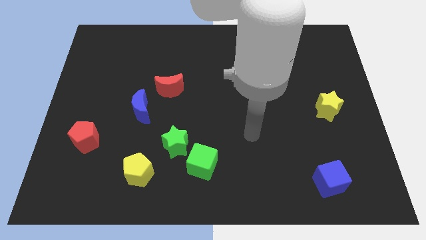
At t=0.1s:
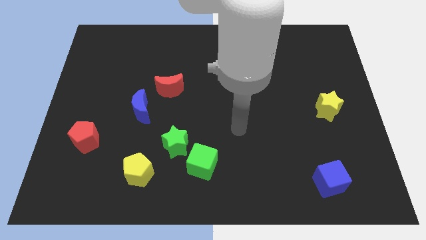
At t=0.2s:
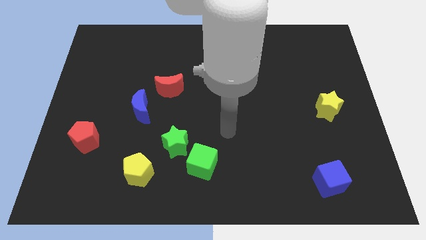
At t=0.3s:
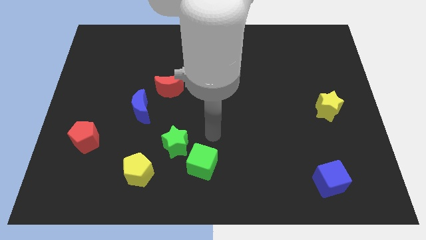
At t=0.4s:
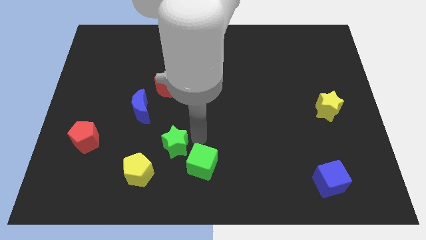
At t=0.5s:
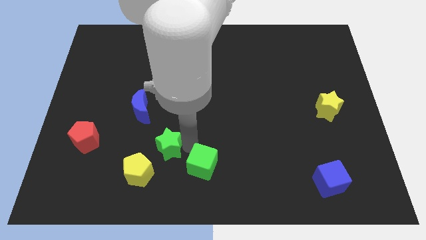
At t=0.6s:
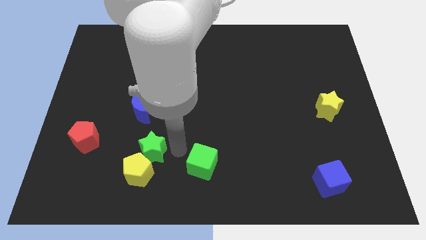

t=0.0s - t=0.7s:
pull the green cube apart from the green star

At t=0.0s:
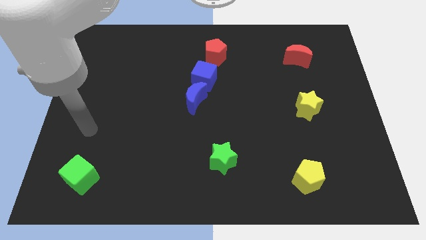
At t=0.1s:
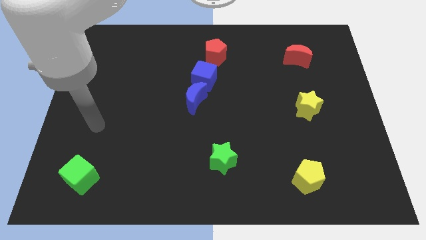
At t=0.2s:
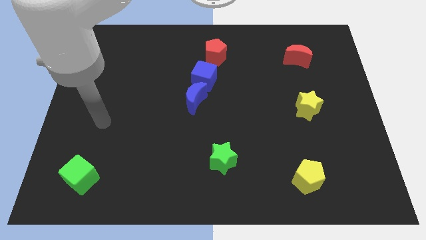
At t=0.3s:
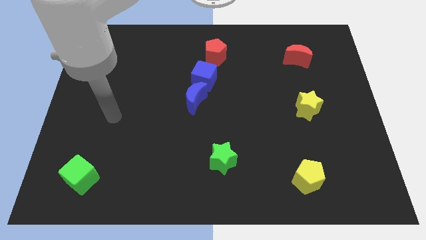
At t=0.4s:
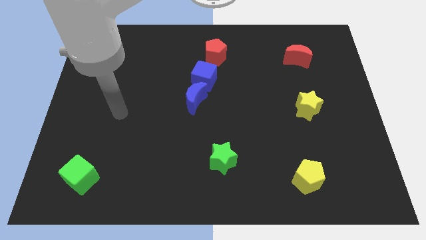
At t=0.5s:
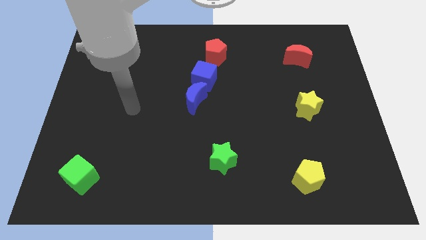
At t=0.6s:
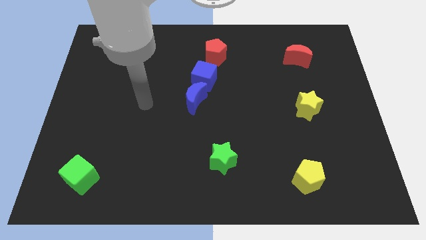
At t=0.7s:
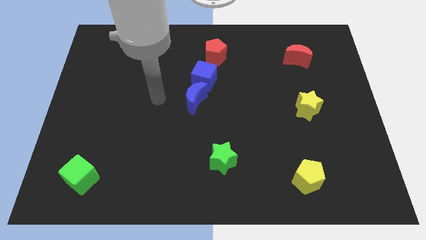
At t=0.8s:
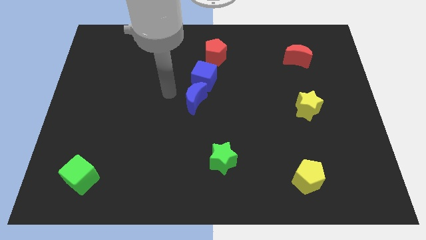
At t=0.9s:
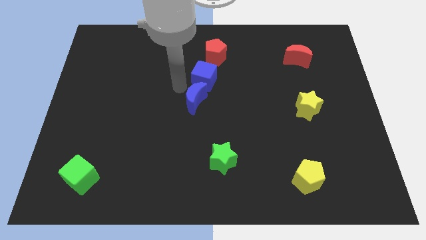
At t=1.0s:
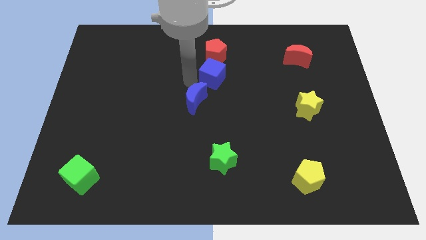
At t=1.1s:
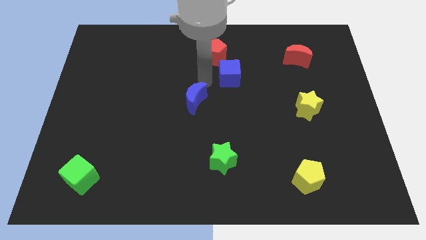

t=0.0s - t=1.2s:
move the blue moon away from the blue cube

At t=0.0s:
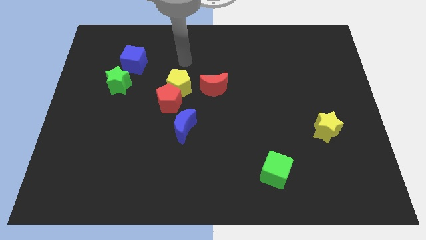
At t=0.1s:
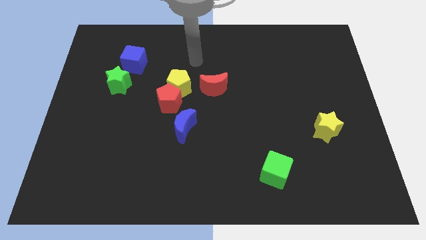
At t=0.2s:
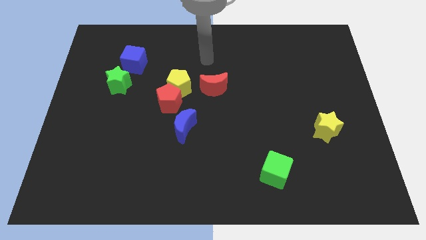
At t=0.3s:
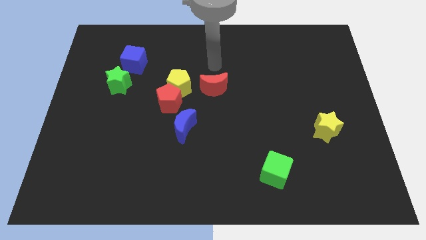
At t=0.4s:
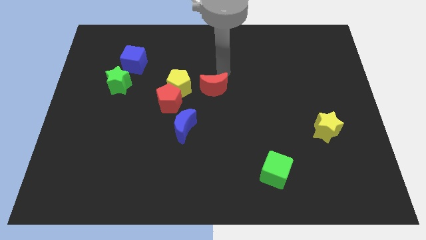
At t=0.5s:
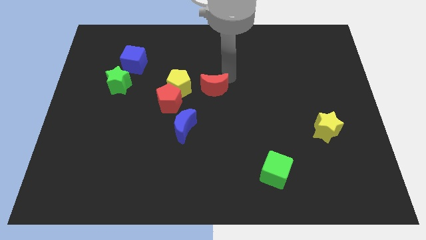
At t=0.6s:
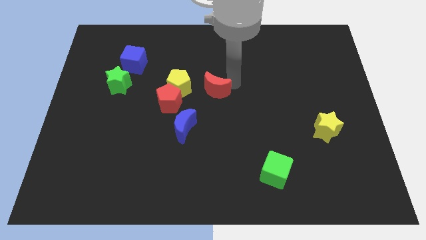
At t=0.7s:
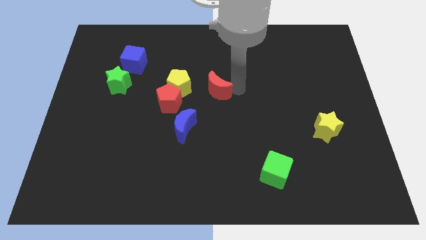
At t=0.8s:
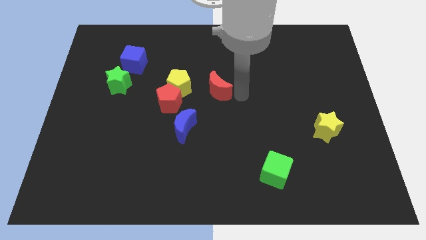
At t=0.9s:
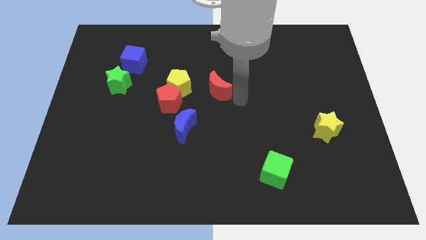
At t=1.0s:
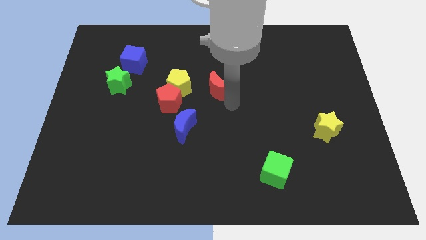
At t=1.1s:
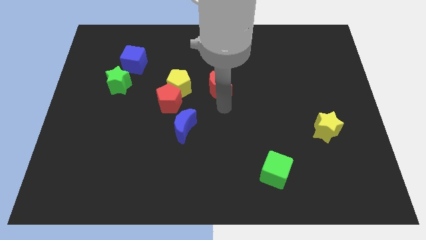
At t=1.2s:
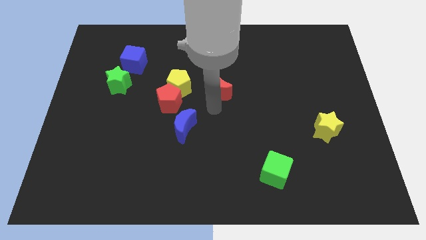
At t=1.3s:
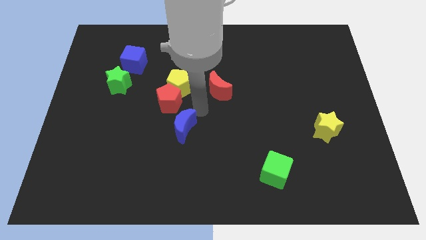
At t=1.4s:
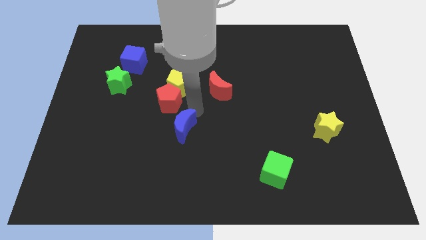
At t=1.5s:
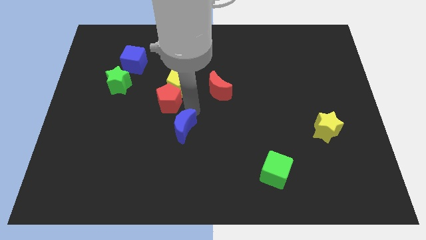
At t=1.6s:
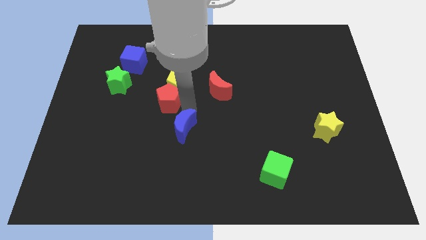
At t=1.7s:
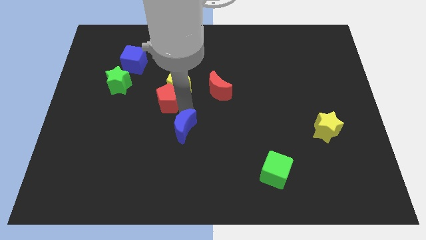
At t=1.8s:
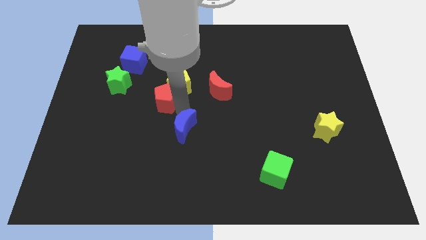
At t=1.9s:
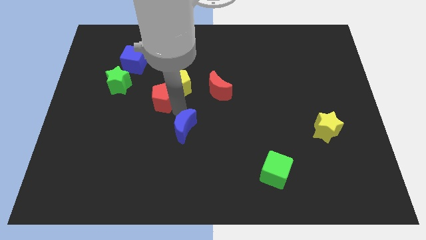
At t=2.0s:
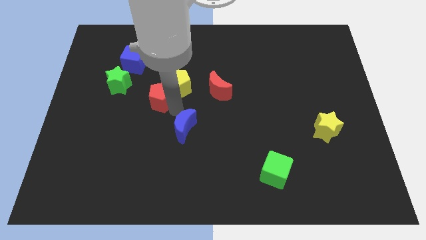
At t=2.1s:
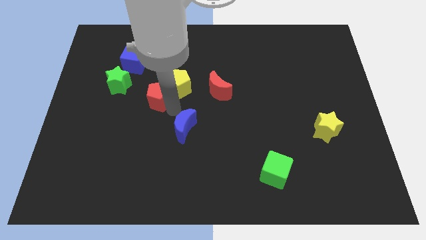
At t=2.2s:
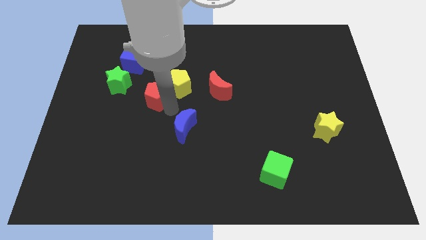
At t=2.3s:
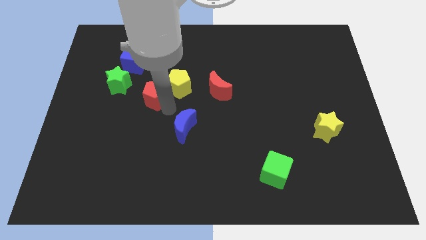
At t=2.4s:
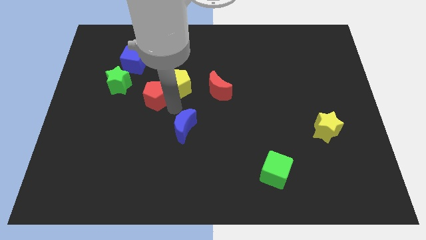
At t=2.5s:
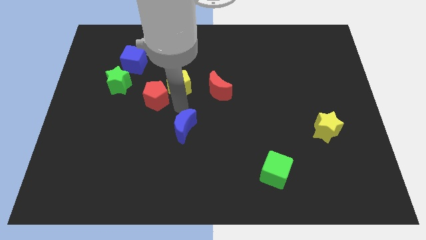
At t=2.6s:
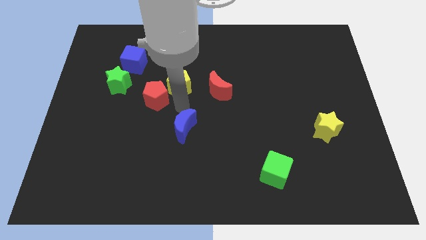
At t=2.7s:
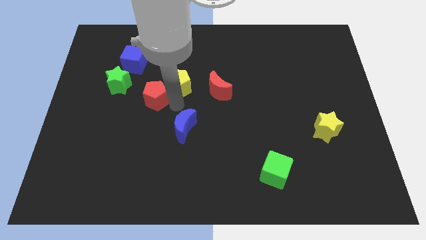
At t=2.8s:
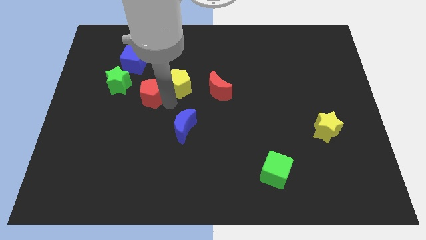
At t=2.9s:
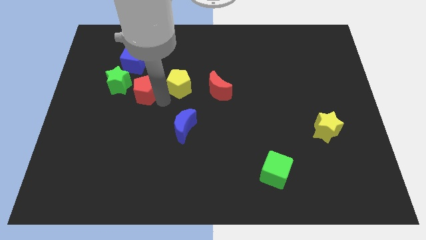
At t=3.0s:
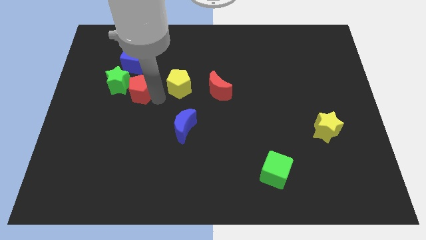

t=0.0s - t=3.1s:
move the red pentagon away from the yellow pentagon and blue moon

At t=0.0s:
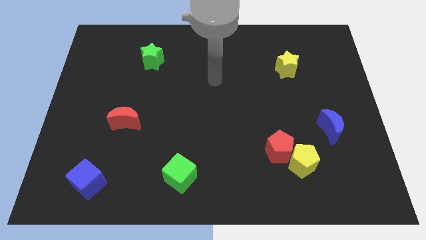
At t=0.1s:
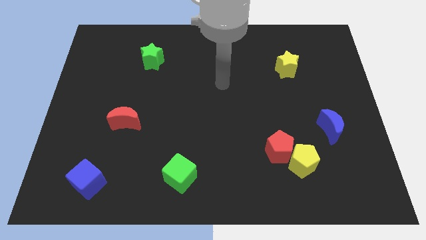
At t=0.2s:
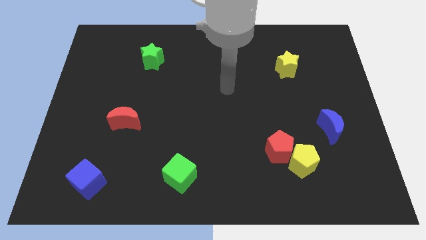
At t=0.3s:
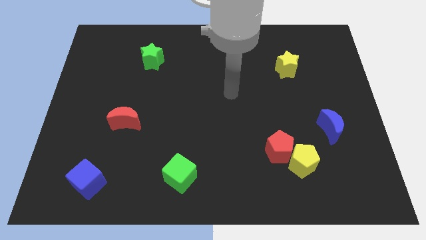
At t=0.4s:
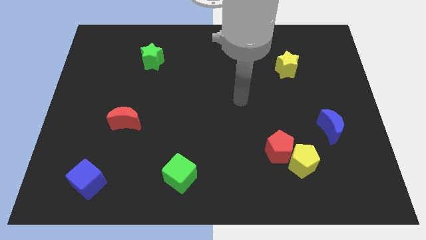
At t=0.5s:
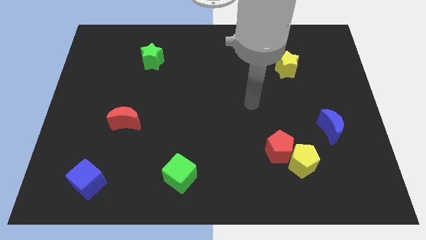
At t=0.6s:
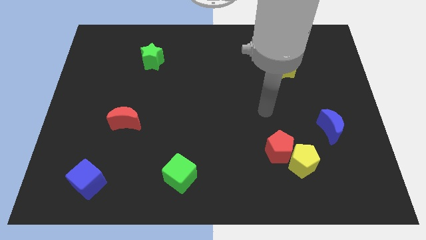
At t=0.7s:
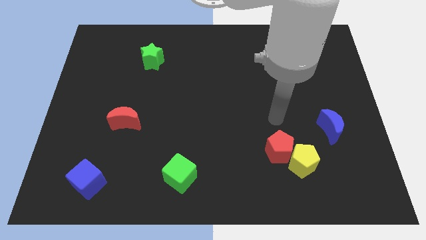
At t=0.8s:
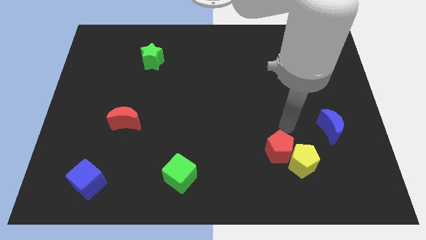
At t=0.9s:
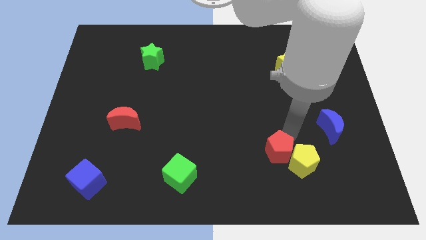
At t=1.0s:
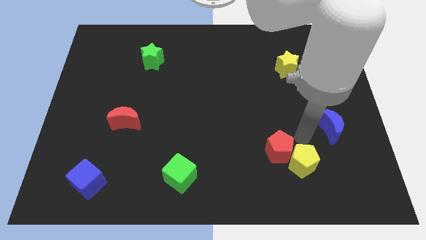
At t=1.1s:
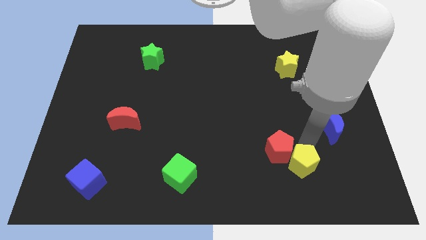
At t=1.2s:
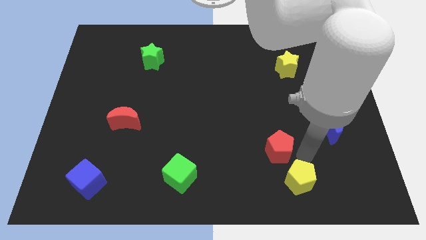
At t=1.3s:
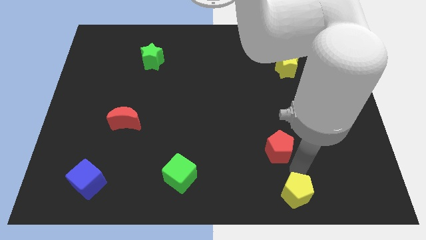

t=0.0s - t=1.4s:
separate the red pentagon from the yellow pentagon

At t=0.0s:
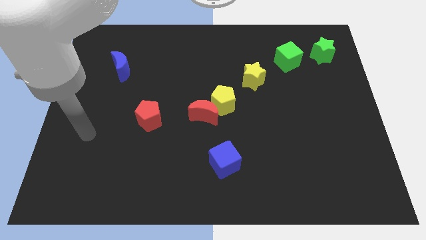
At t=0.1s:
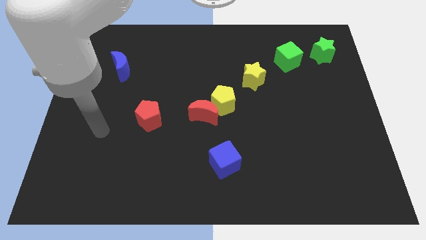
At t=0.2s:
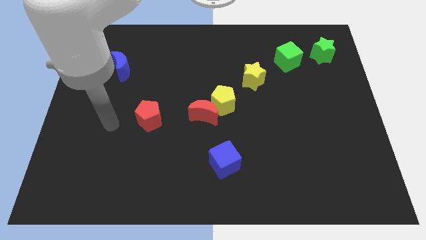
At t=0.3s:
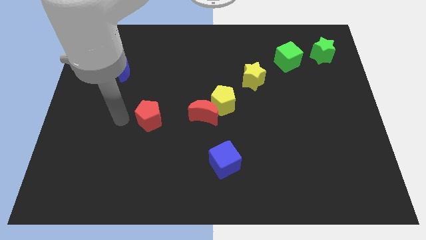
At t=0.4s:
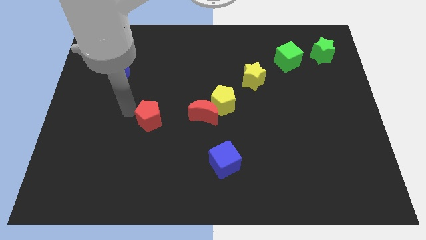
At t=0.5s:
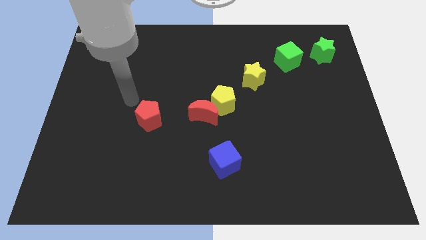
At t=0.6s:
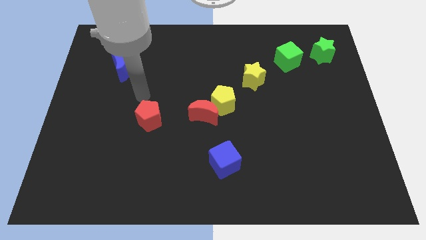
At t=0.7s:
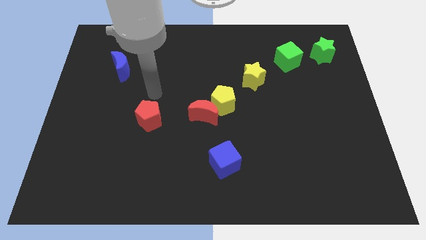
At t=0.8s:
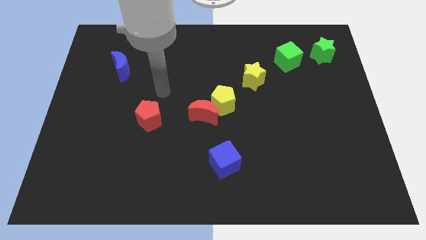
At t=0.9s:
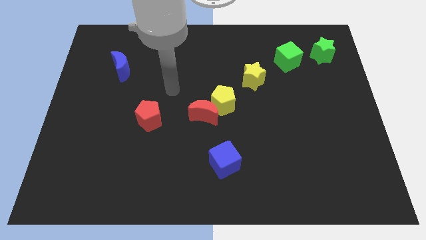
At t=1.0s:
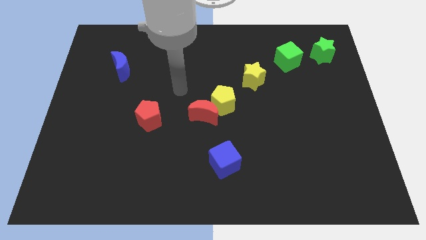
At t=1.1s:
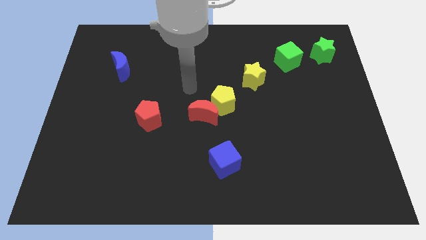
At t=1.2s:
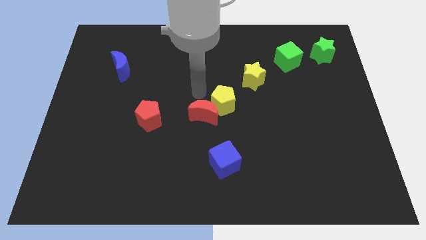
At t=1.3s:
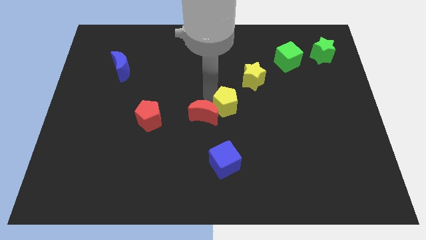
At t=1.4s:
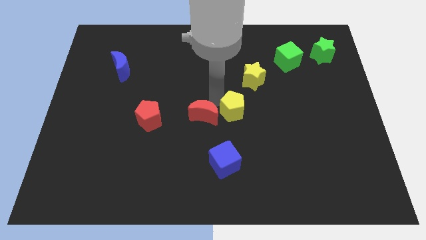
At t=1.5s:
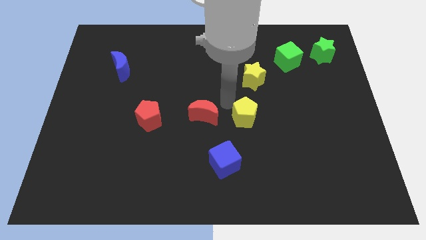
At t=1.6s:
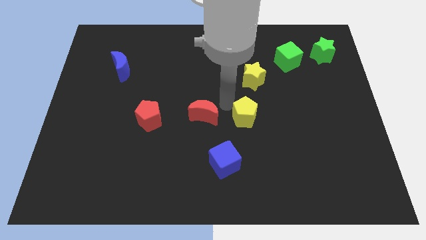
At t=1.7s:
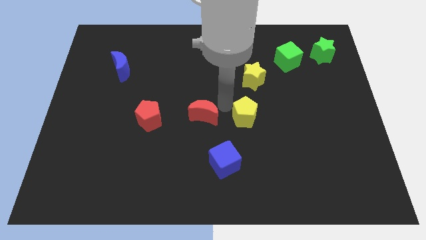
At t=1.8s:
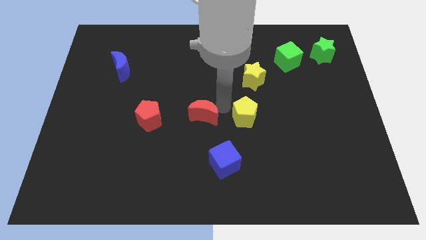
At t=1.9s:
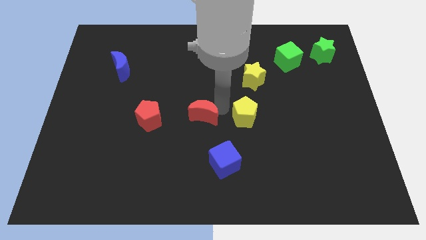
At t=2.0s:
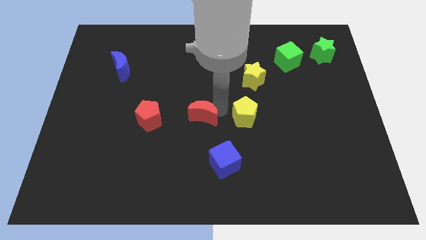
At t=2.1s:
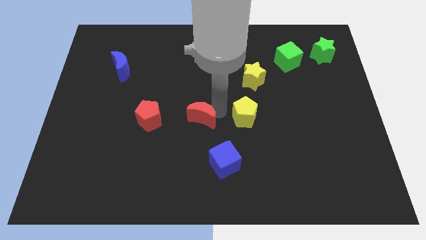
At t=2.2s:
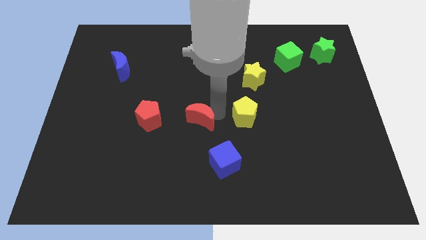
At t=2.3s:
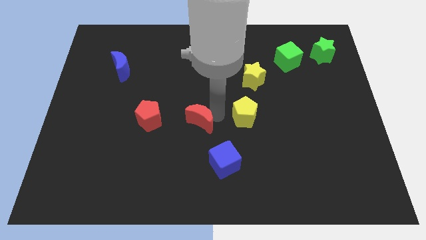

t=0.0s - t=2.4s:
move the red moon away from the yellow pentagon

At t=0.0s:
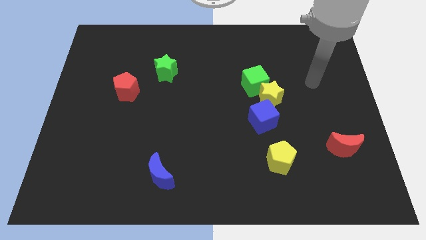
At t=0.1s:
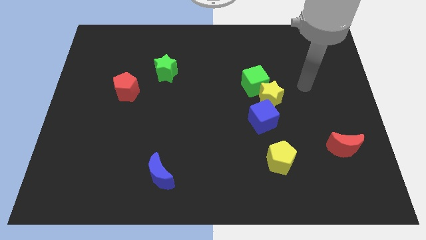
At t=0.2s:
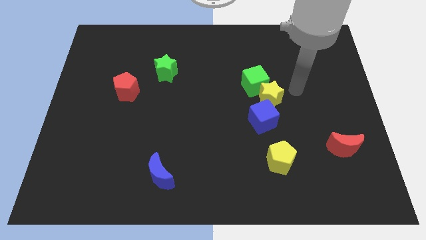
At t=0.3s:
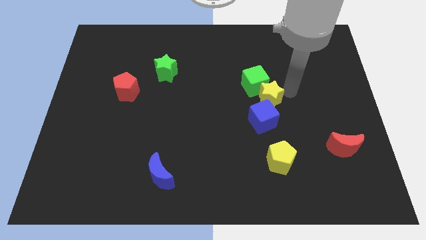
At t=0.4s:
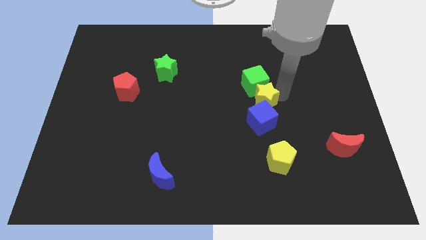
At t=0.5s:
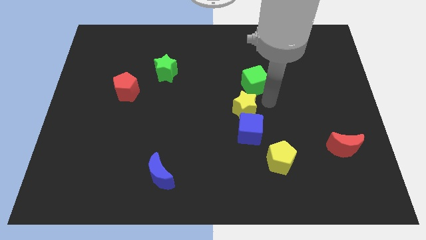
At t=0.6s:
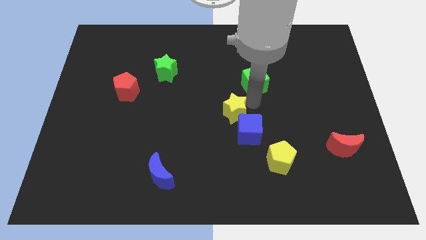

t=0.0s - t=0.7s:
separate the green cube from the yellow star
